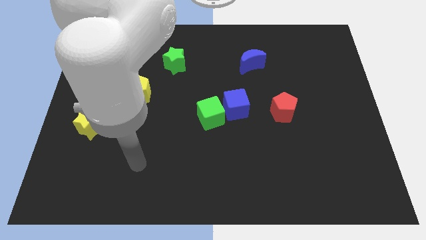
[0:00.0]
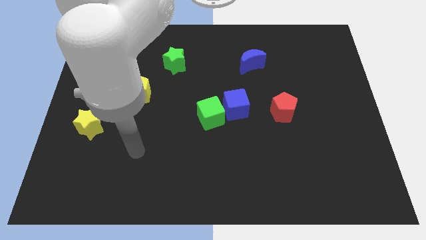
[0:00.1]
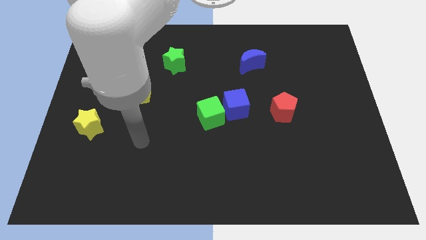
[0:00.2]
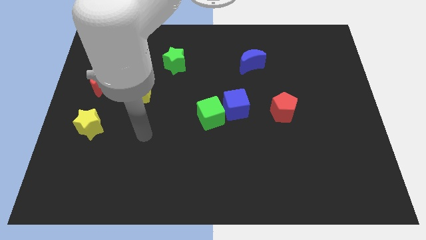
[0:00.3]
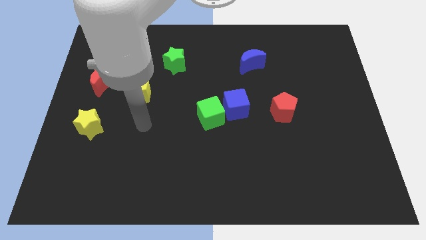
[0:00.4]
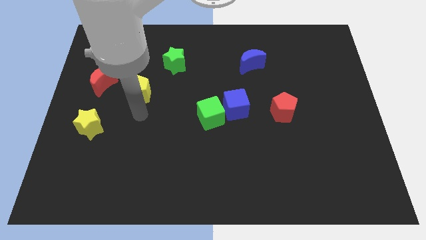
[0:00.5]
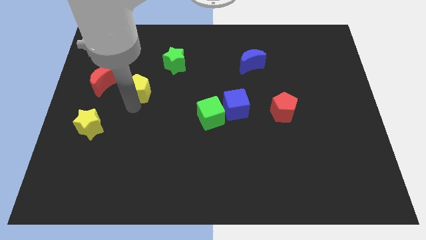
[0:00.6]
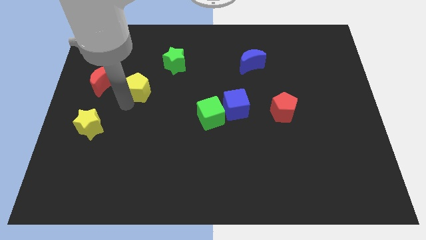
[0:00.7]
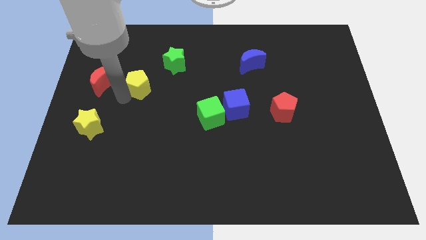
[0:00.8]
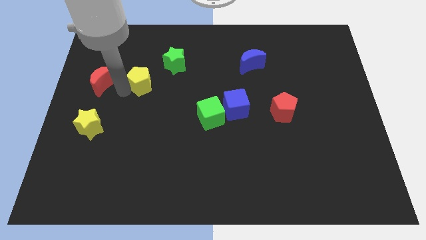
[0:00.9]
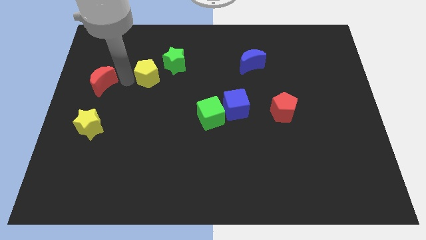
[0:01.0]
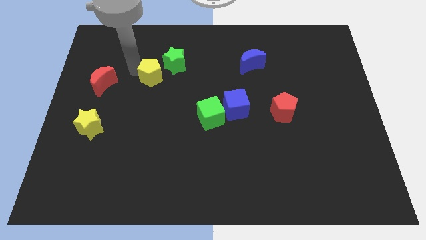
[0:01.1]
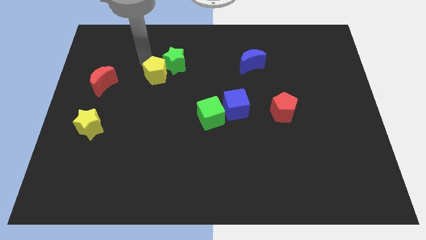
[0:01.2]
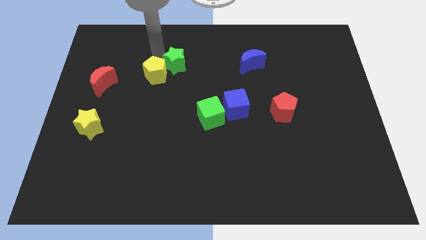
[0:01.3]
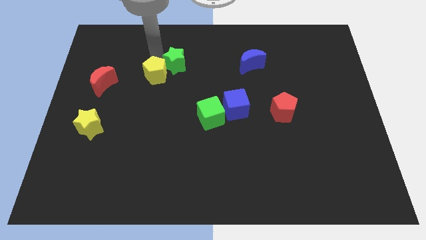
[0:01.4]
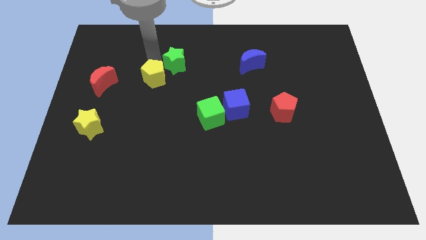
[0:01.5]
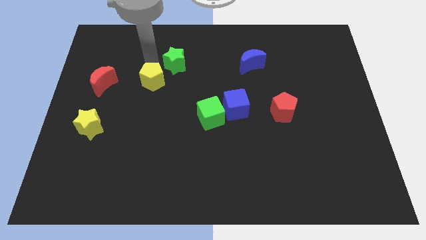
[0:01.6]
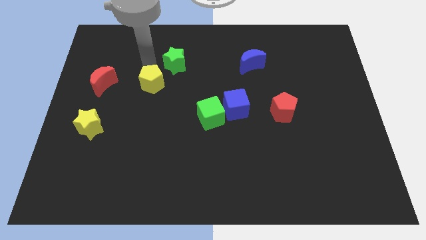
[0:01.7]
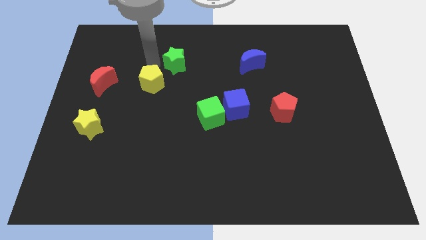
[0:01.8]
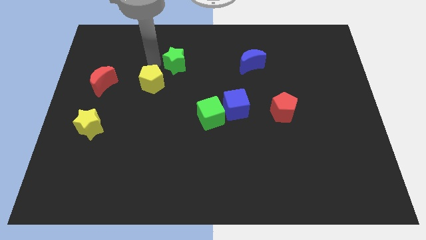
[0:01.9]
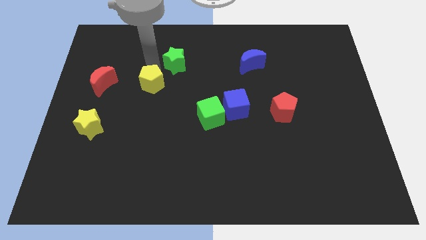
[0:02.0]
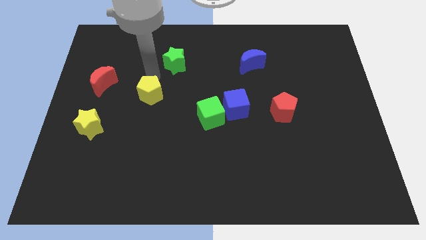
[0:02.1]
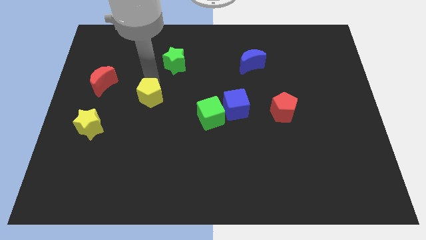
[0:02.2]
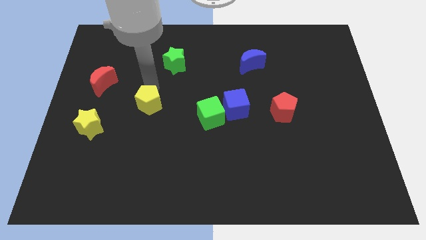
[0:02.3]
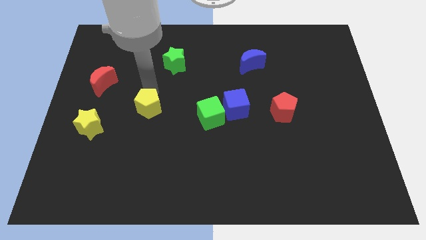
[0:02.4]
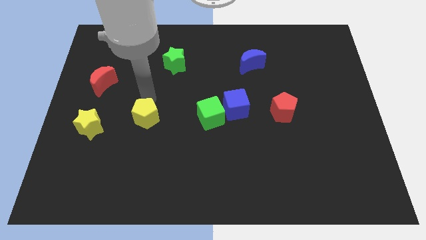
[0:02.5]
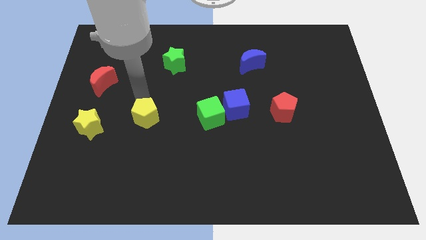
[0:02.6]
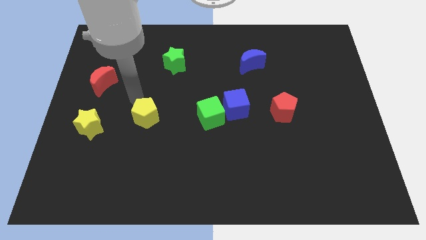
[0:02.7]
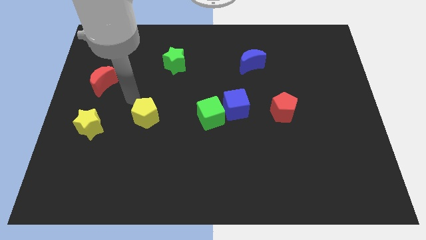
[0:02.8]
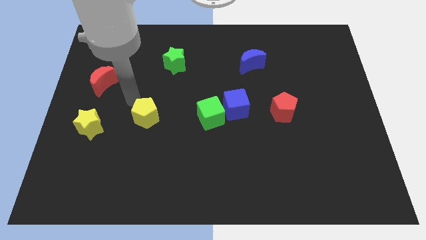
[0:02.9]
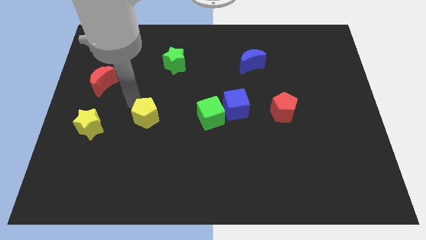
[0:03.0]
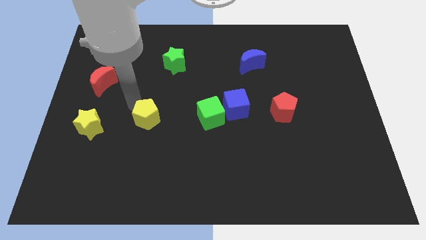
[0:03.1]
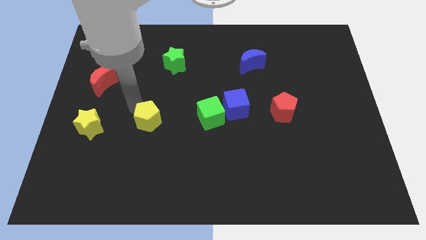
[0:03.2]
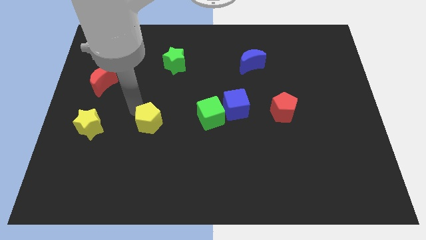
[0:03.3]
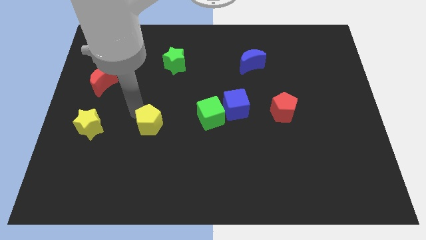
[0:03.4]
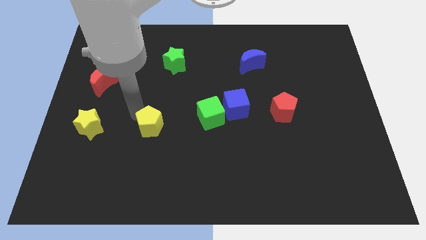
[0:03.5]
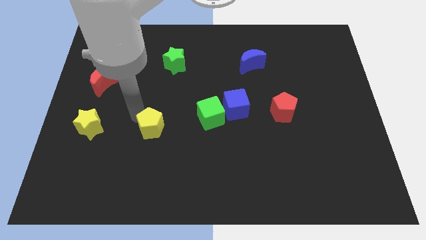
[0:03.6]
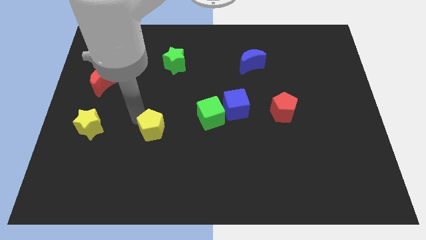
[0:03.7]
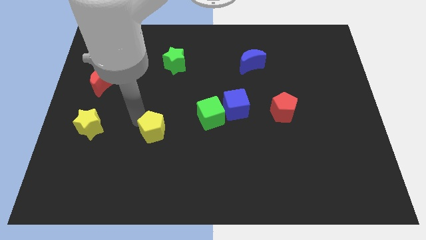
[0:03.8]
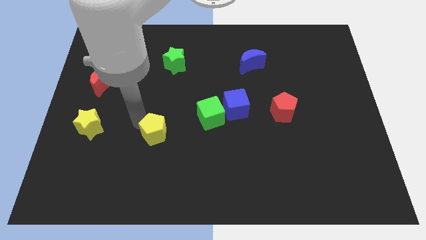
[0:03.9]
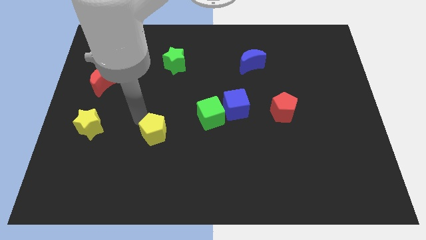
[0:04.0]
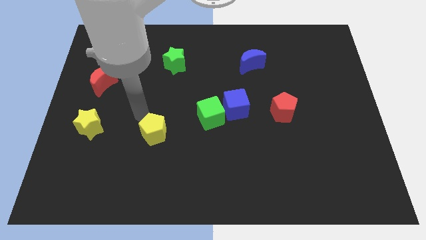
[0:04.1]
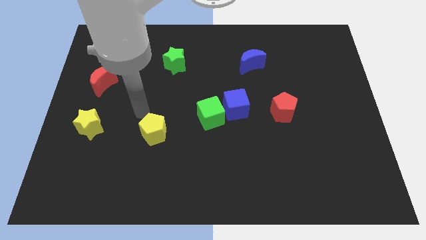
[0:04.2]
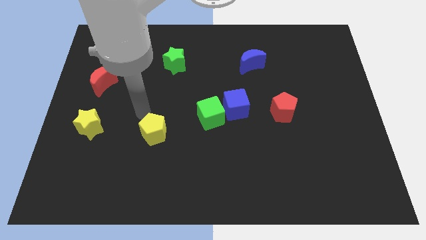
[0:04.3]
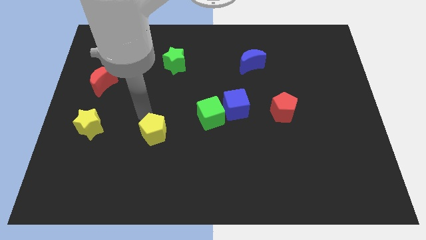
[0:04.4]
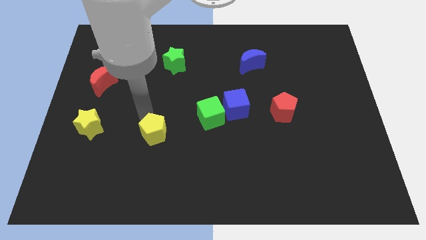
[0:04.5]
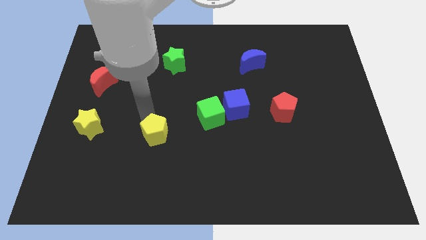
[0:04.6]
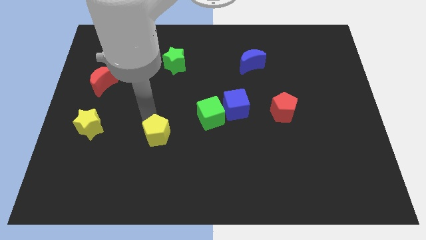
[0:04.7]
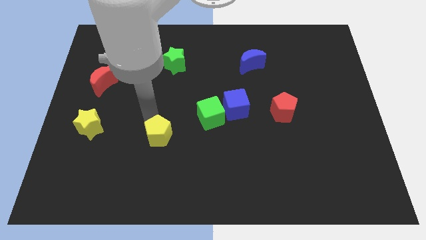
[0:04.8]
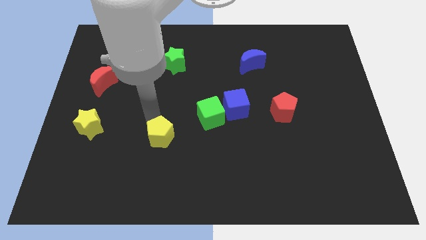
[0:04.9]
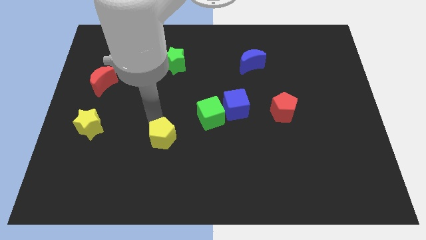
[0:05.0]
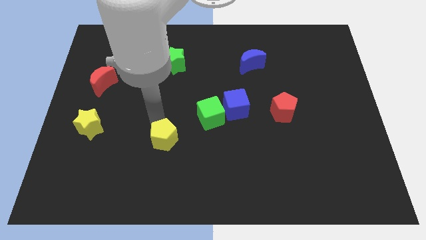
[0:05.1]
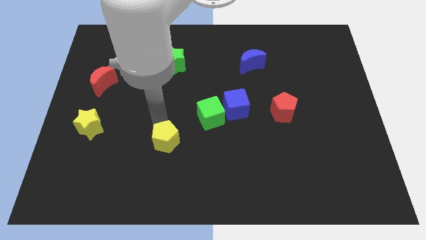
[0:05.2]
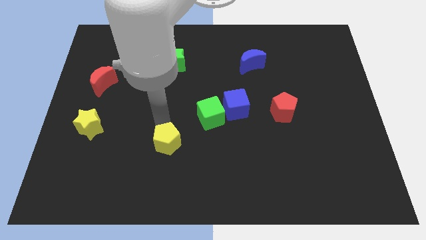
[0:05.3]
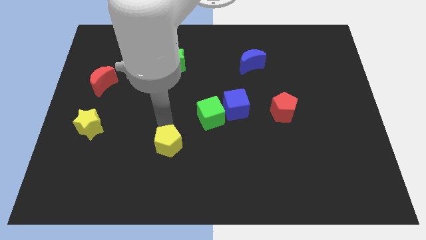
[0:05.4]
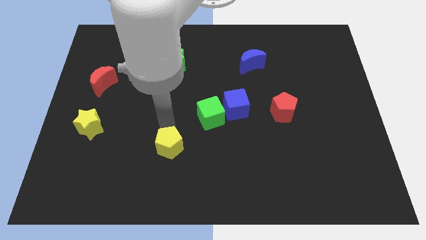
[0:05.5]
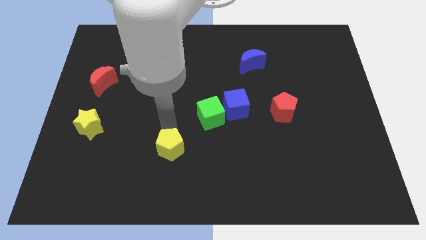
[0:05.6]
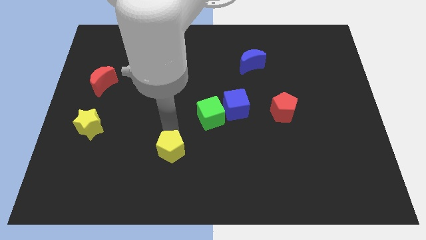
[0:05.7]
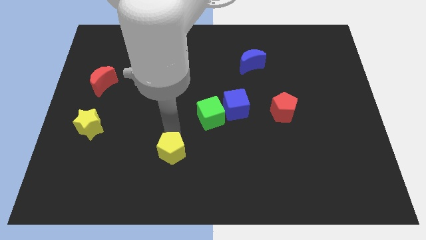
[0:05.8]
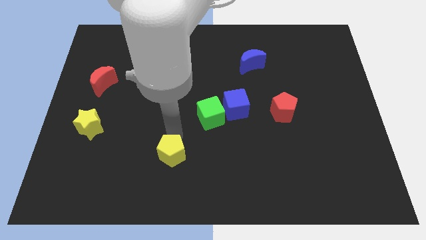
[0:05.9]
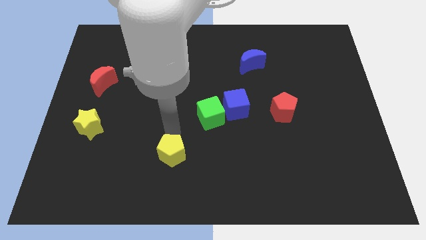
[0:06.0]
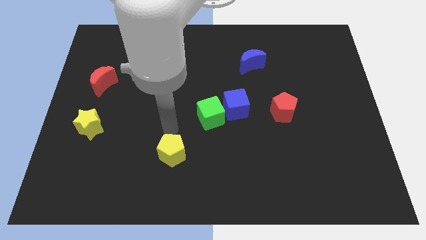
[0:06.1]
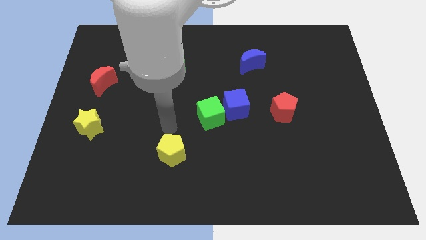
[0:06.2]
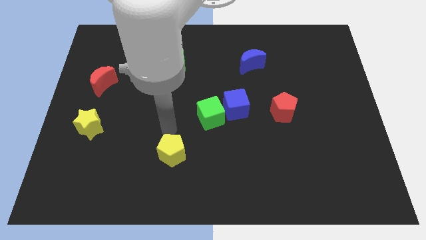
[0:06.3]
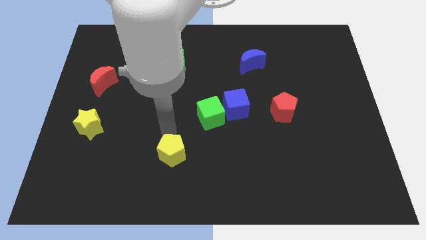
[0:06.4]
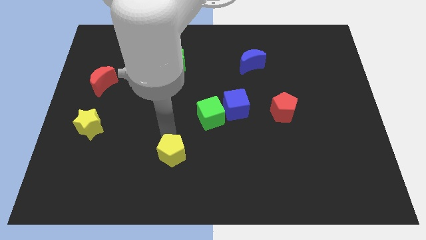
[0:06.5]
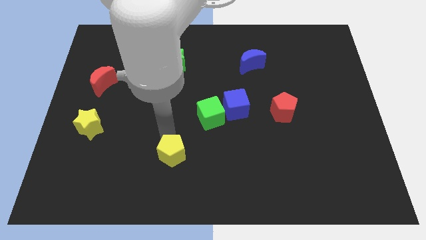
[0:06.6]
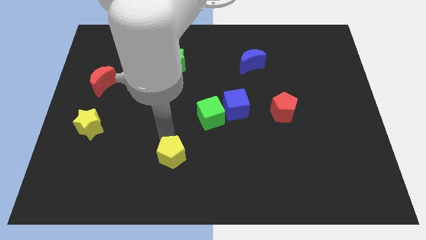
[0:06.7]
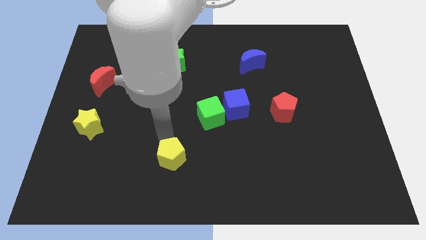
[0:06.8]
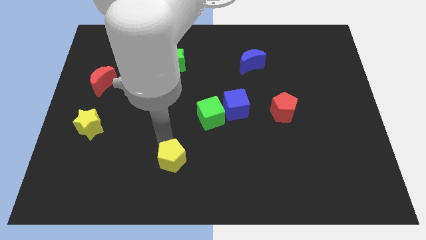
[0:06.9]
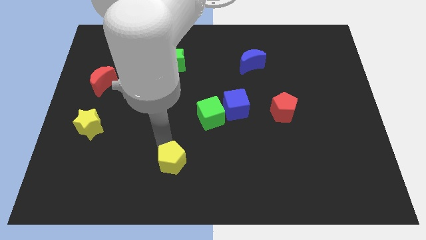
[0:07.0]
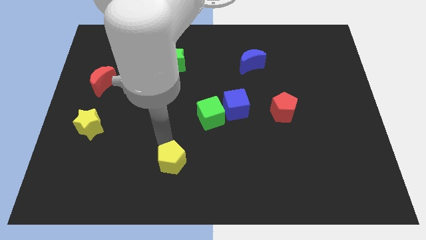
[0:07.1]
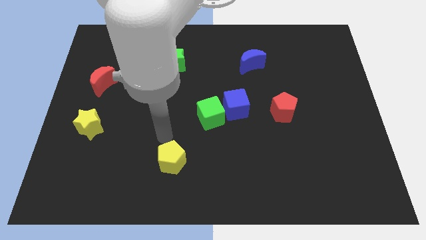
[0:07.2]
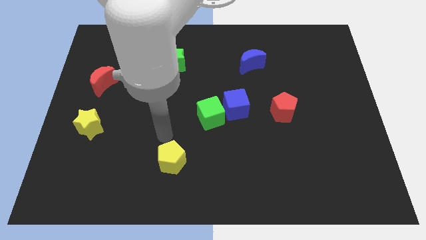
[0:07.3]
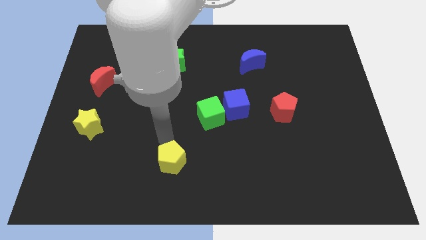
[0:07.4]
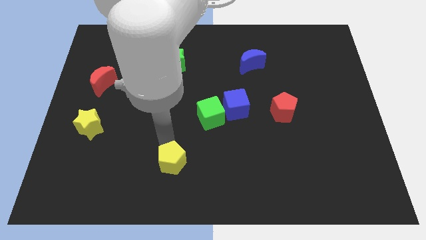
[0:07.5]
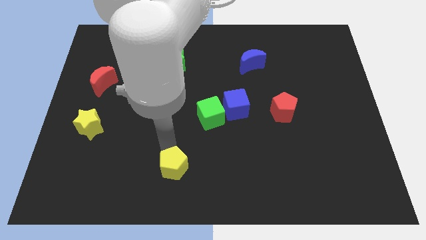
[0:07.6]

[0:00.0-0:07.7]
put the yellow pentagon to the bottom

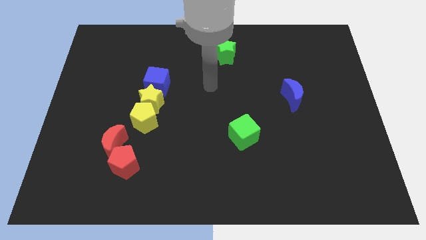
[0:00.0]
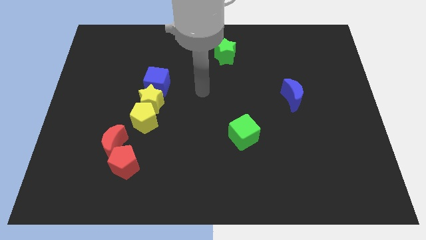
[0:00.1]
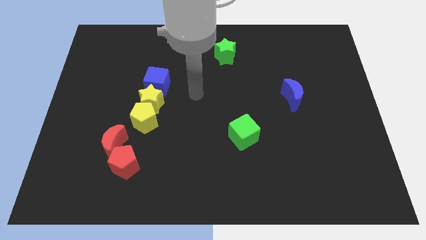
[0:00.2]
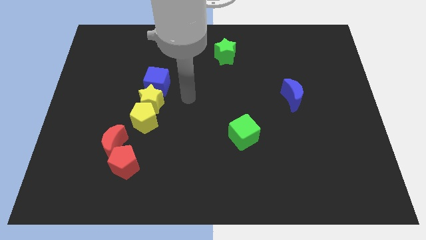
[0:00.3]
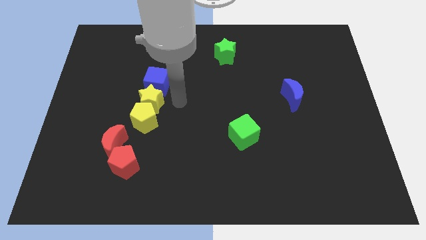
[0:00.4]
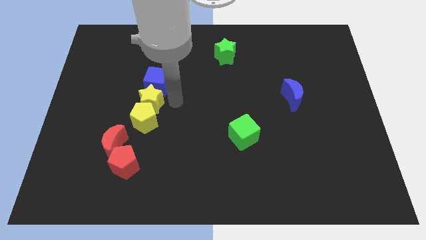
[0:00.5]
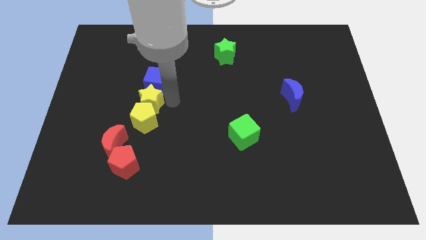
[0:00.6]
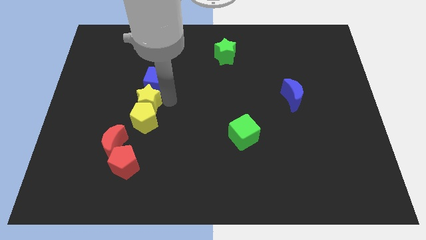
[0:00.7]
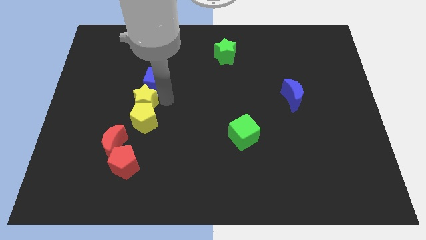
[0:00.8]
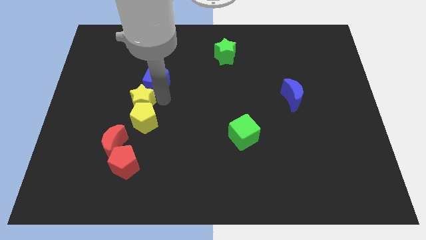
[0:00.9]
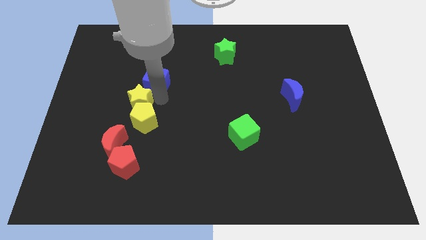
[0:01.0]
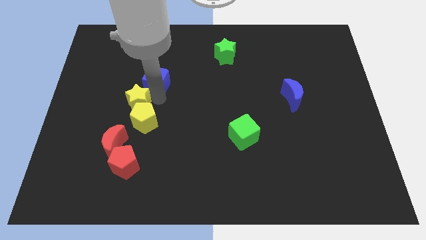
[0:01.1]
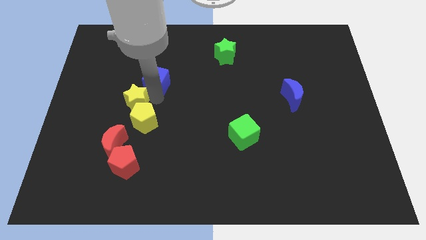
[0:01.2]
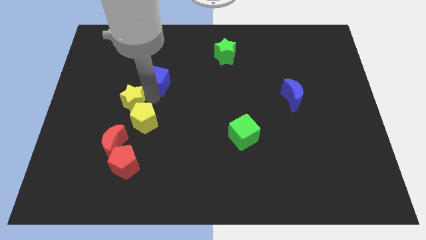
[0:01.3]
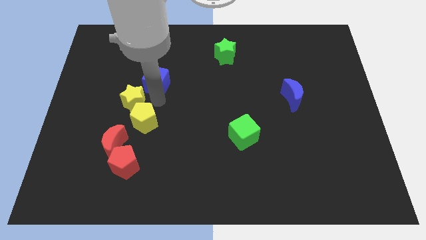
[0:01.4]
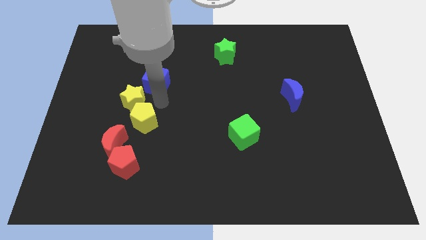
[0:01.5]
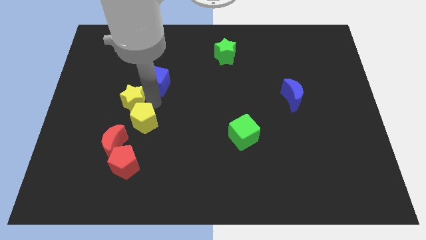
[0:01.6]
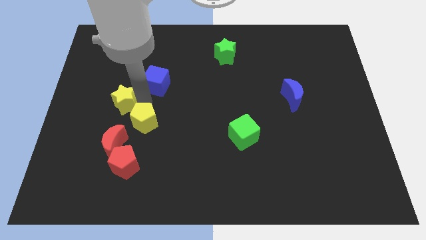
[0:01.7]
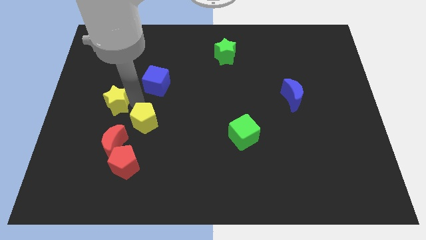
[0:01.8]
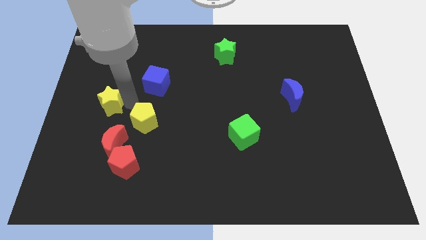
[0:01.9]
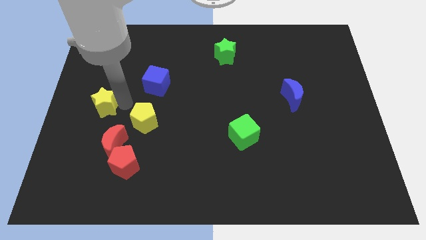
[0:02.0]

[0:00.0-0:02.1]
move the yellow star to the left side
